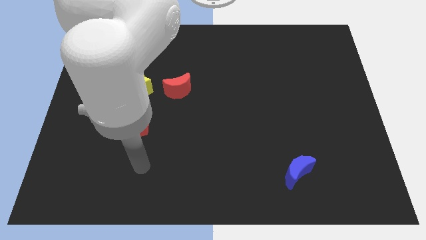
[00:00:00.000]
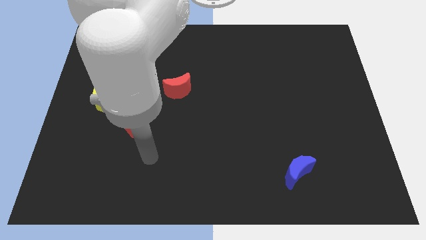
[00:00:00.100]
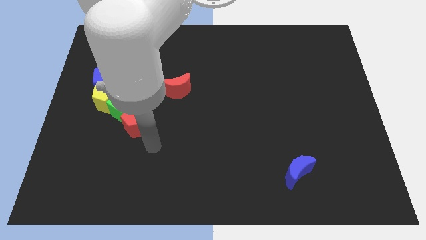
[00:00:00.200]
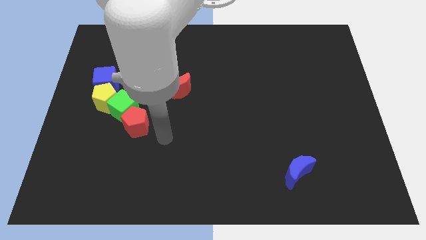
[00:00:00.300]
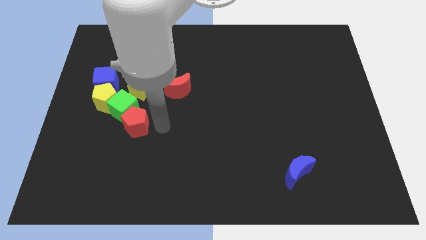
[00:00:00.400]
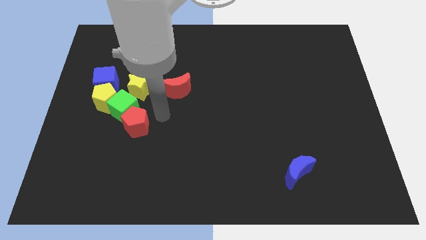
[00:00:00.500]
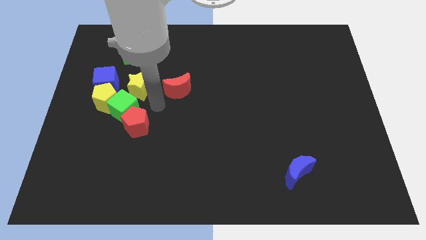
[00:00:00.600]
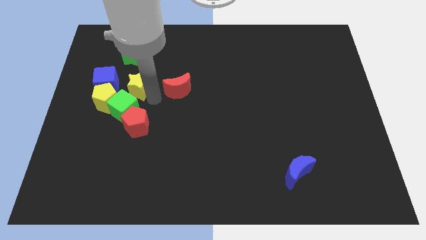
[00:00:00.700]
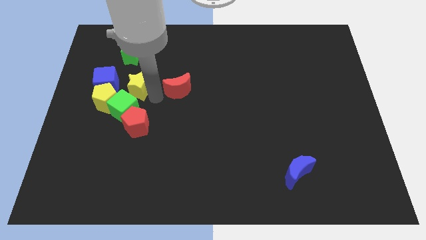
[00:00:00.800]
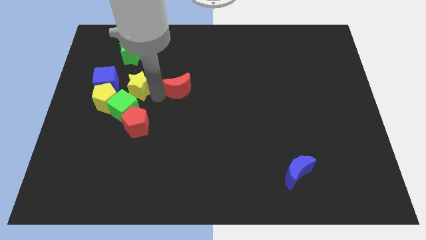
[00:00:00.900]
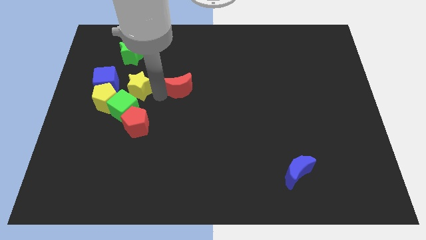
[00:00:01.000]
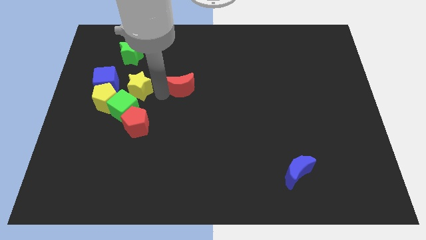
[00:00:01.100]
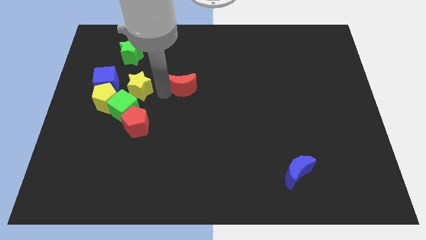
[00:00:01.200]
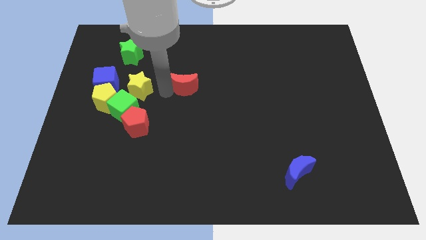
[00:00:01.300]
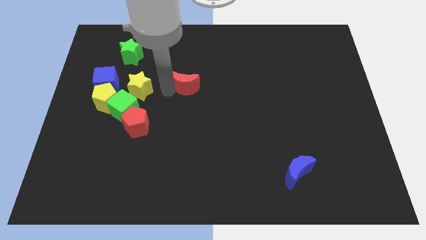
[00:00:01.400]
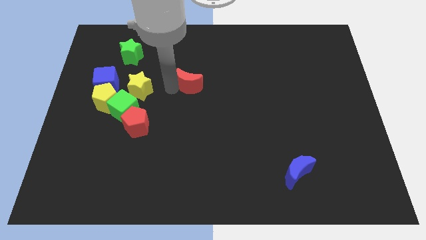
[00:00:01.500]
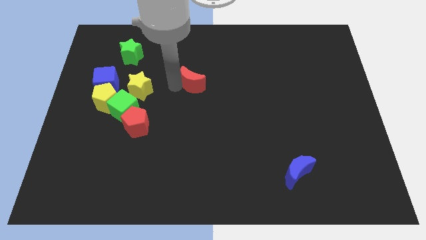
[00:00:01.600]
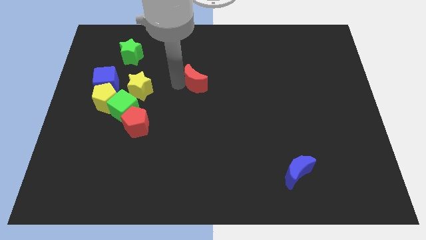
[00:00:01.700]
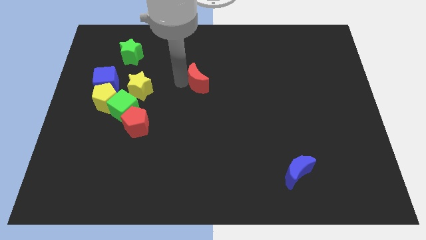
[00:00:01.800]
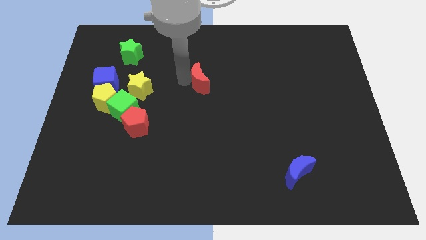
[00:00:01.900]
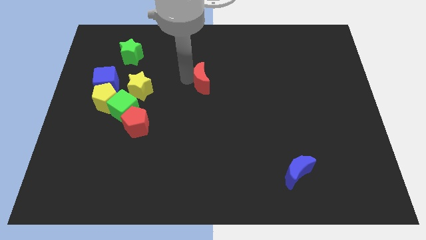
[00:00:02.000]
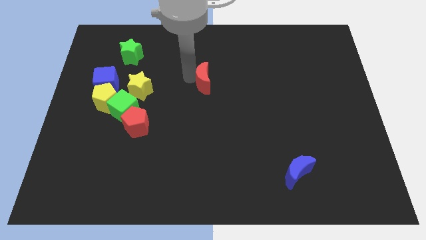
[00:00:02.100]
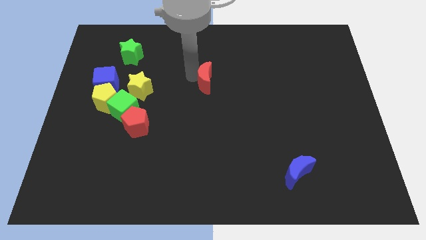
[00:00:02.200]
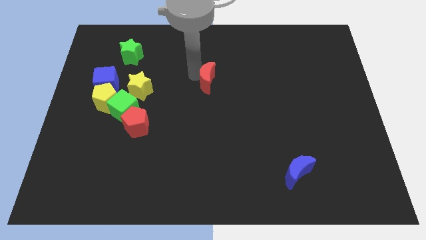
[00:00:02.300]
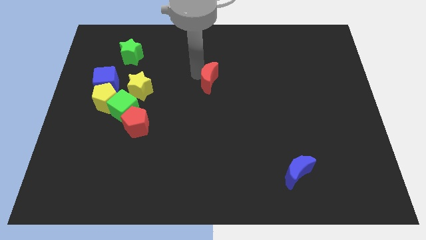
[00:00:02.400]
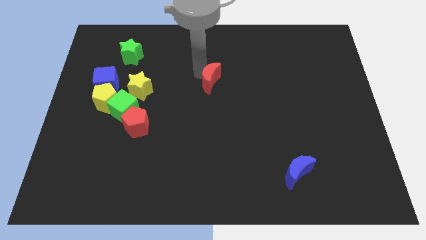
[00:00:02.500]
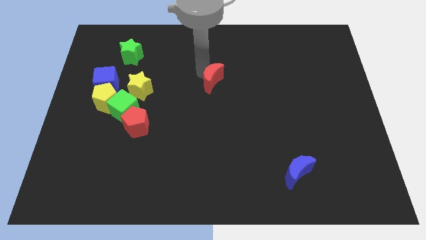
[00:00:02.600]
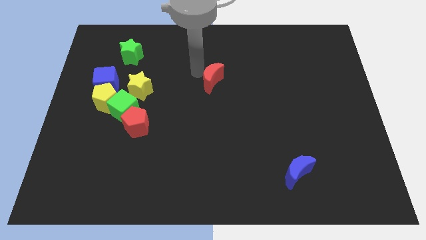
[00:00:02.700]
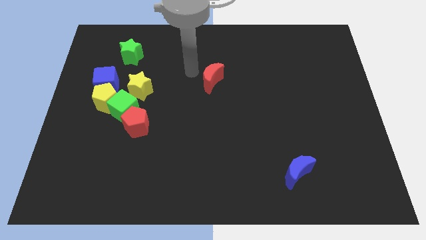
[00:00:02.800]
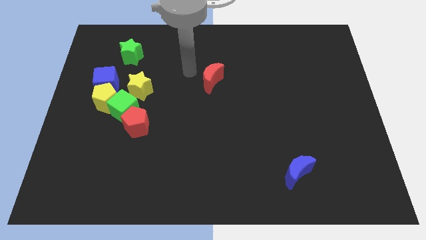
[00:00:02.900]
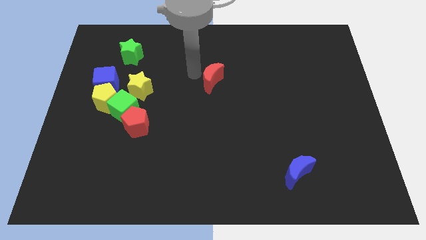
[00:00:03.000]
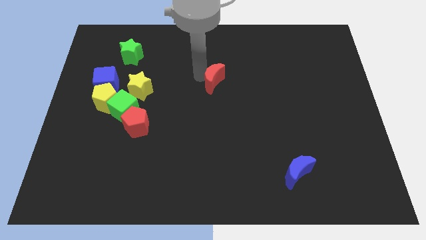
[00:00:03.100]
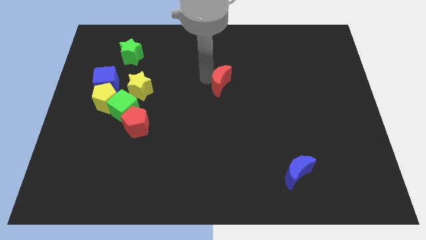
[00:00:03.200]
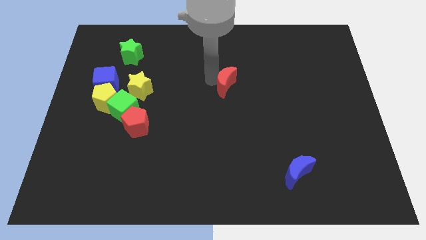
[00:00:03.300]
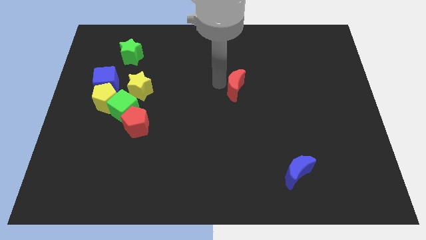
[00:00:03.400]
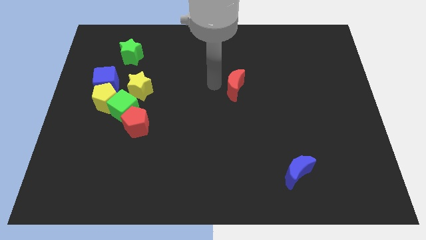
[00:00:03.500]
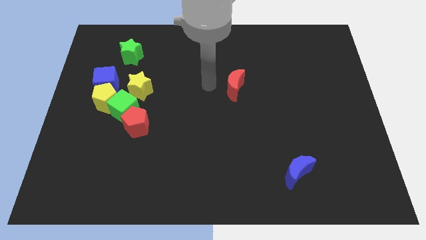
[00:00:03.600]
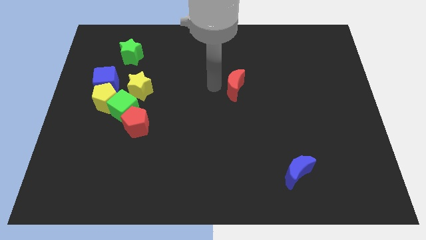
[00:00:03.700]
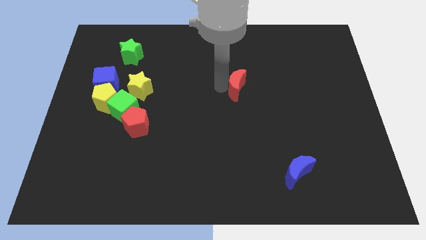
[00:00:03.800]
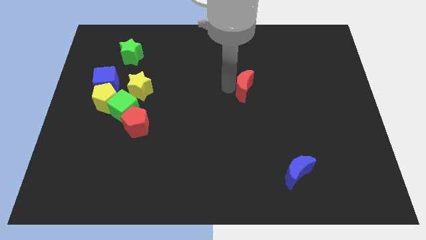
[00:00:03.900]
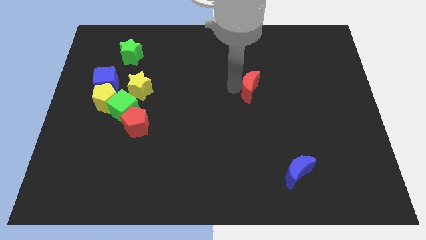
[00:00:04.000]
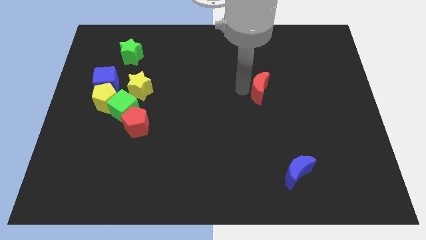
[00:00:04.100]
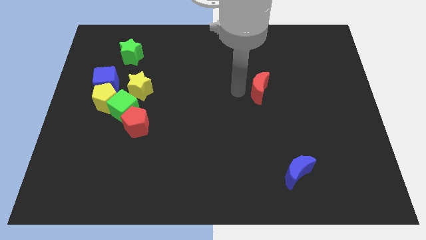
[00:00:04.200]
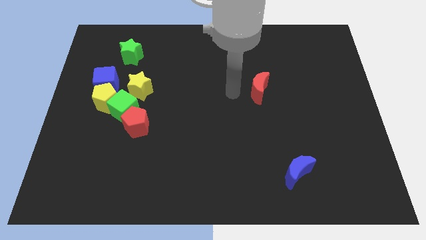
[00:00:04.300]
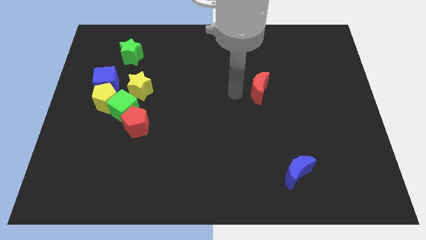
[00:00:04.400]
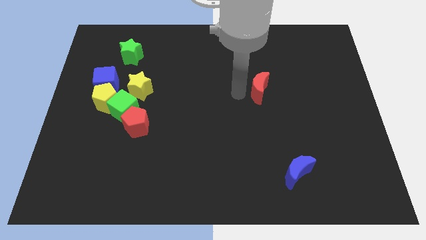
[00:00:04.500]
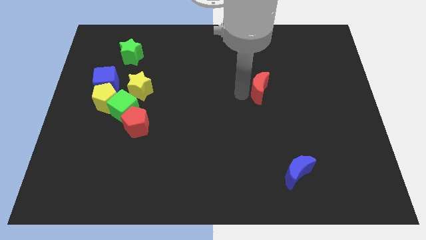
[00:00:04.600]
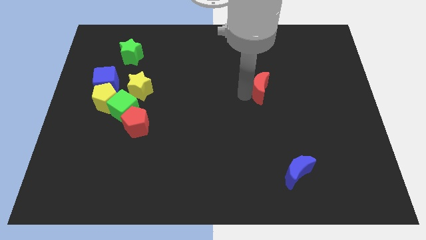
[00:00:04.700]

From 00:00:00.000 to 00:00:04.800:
push the red moon to the right

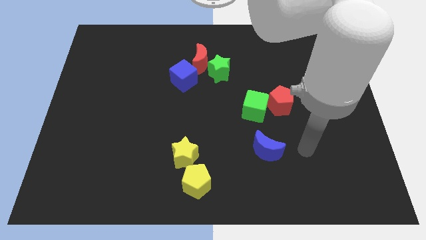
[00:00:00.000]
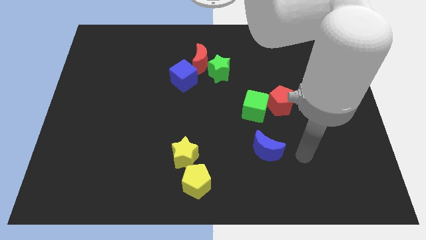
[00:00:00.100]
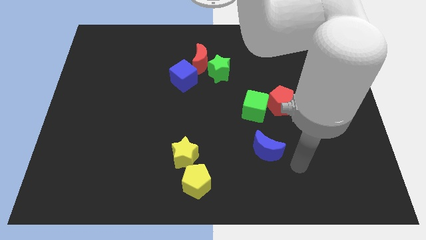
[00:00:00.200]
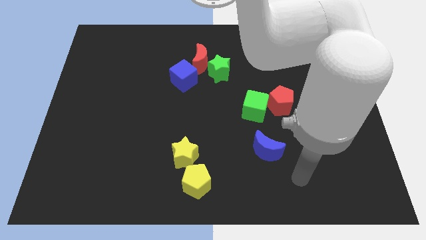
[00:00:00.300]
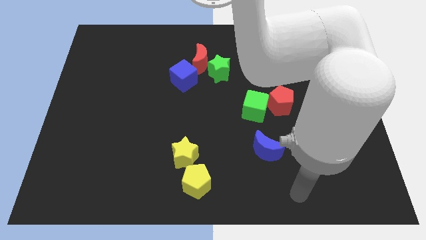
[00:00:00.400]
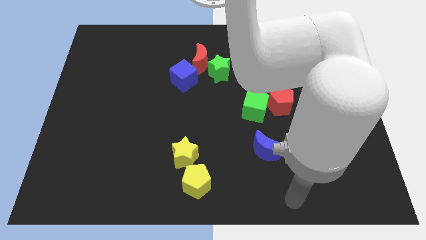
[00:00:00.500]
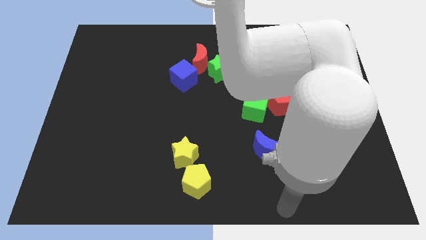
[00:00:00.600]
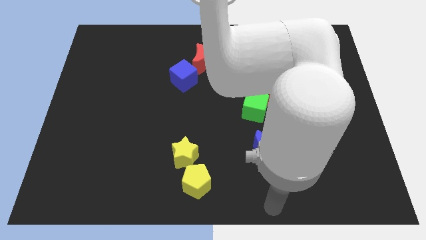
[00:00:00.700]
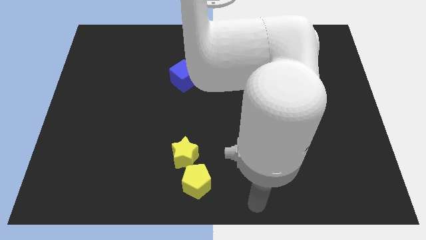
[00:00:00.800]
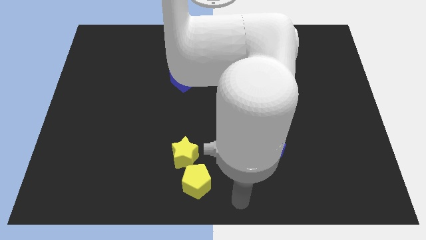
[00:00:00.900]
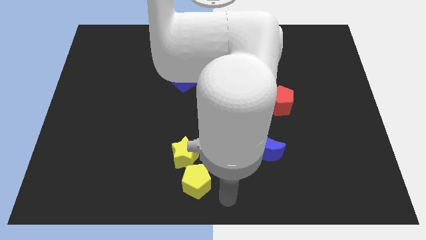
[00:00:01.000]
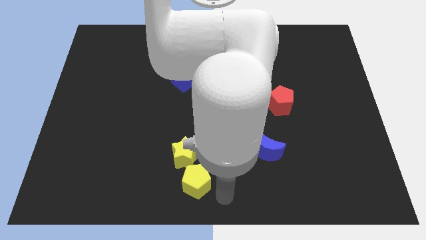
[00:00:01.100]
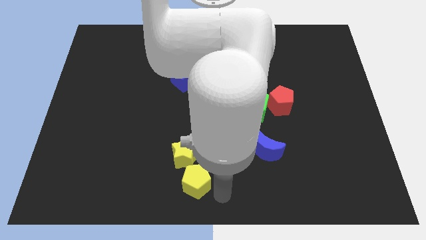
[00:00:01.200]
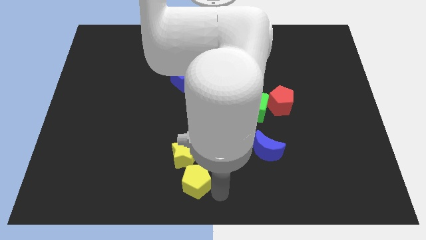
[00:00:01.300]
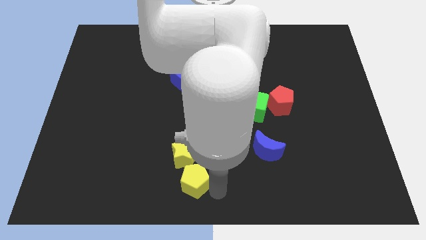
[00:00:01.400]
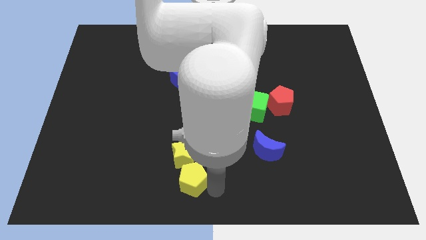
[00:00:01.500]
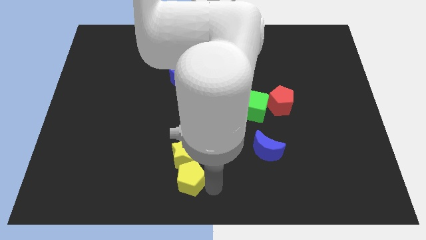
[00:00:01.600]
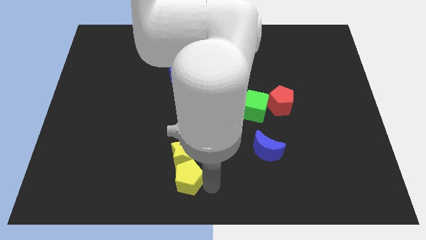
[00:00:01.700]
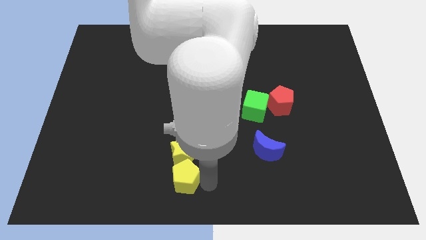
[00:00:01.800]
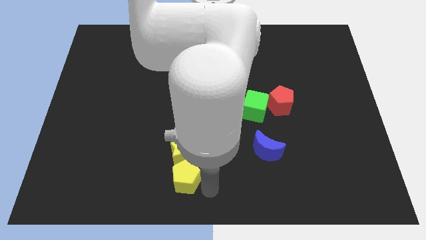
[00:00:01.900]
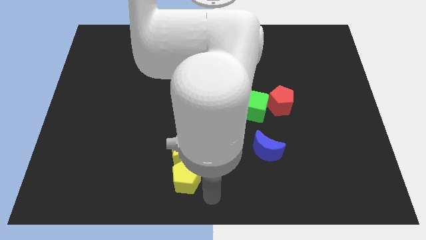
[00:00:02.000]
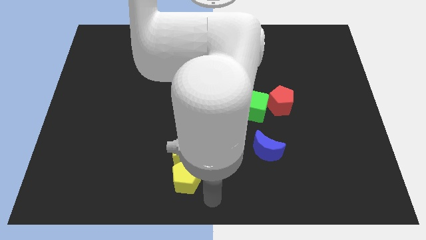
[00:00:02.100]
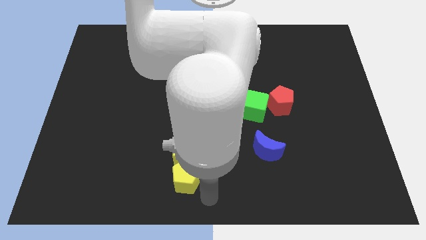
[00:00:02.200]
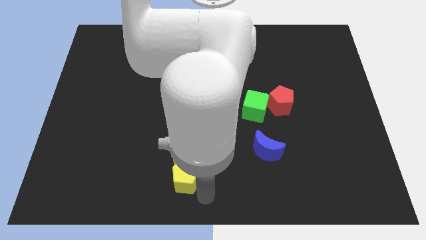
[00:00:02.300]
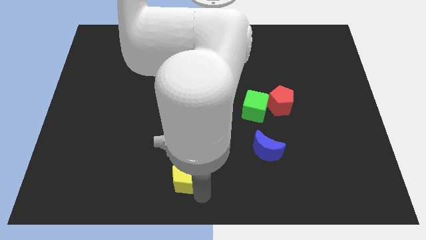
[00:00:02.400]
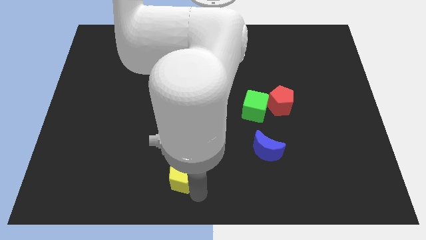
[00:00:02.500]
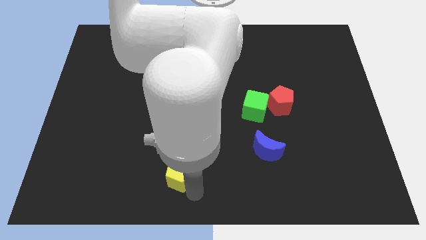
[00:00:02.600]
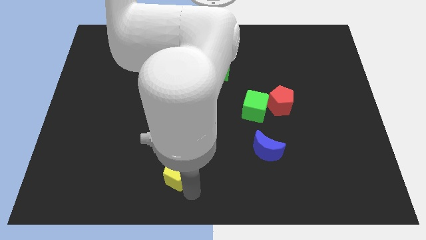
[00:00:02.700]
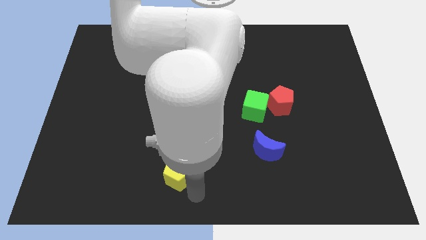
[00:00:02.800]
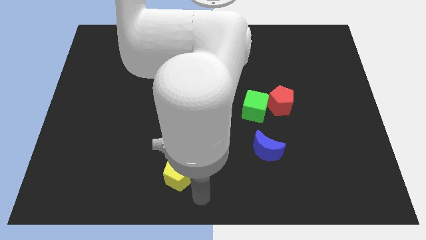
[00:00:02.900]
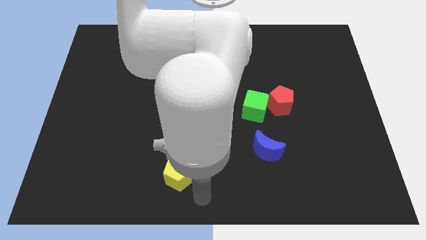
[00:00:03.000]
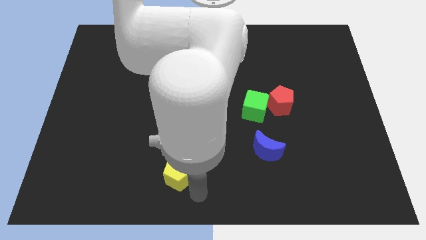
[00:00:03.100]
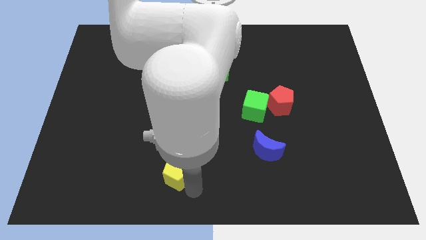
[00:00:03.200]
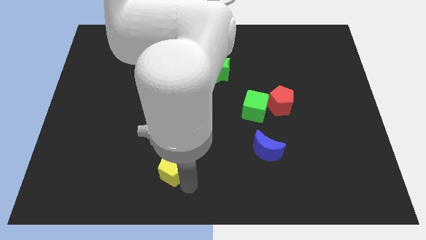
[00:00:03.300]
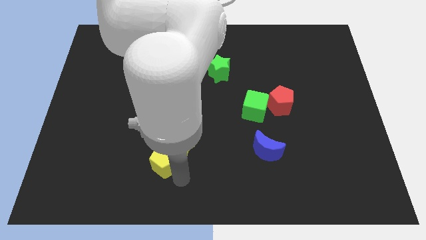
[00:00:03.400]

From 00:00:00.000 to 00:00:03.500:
slightly push the yellow pentagon diagonally up and left
